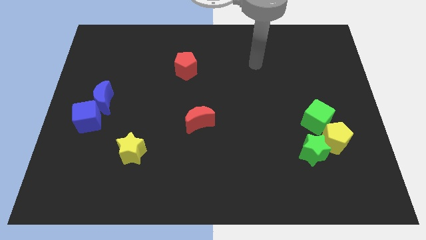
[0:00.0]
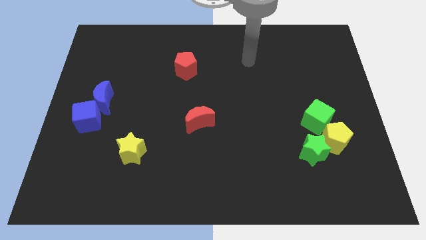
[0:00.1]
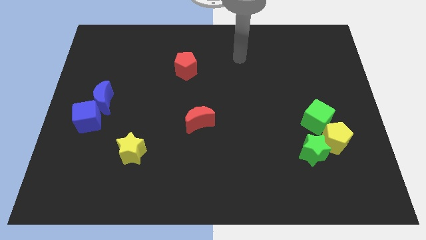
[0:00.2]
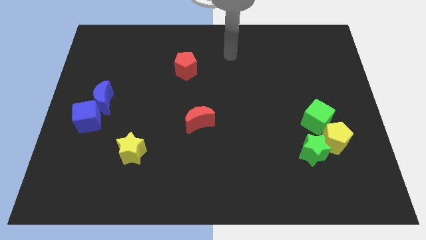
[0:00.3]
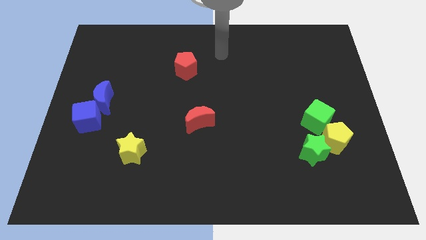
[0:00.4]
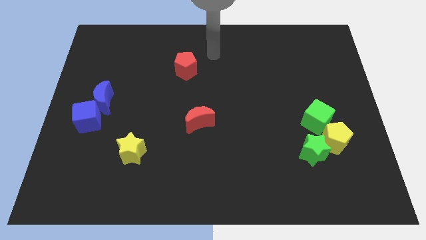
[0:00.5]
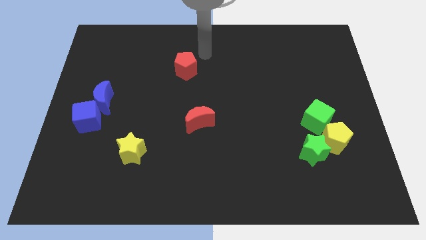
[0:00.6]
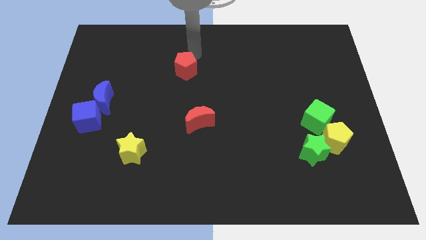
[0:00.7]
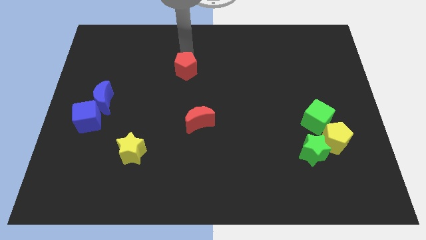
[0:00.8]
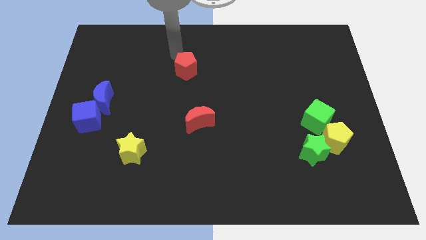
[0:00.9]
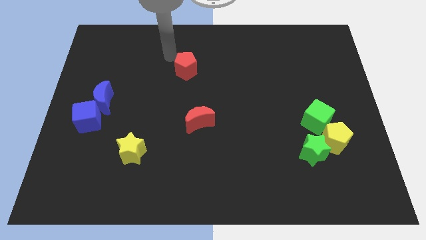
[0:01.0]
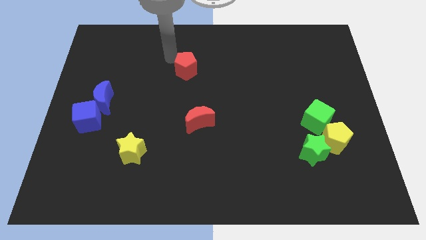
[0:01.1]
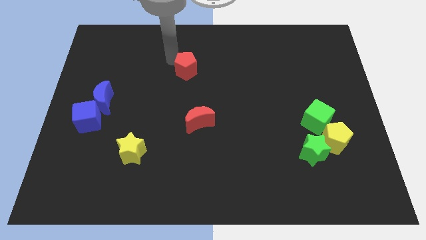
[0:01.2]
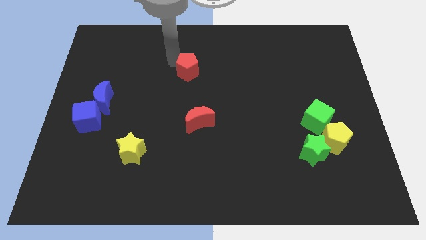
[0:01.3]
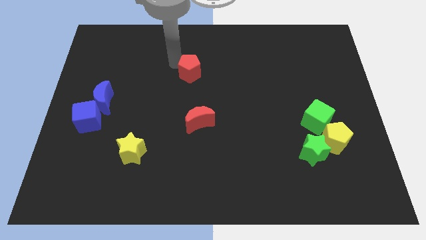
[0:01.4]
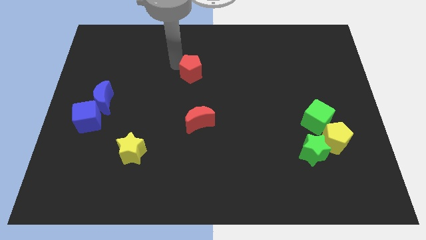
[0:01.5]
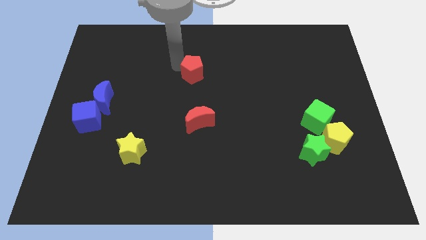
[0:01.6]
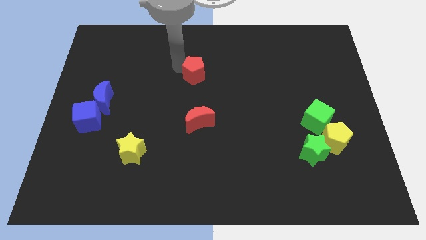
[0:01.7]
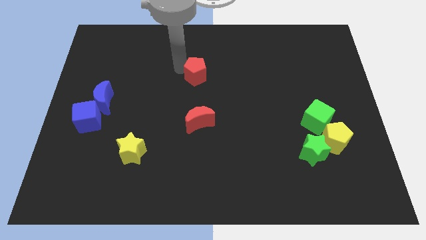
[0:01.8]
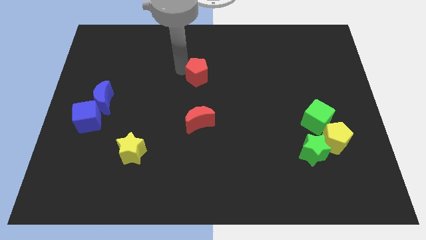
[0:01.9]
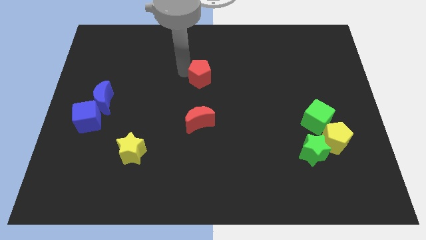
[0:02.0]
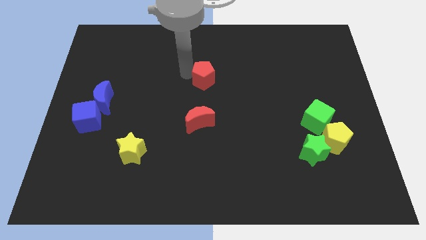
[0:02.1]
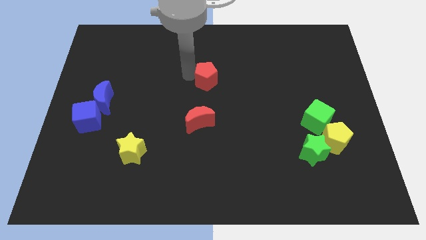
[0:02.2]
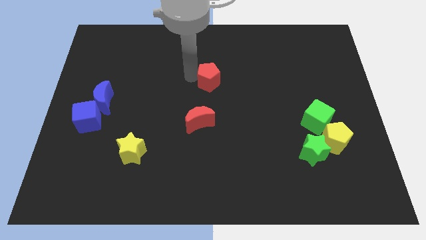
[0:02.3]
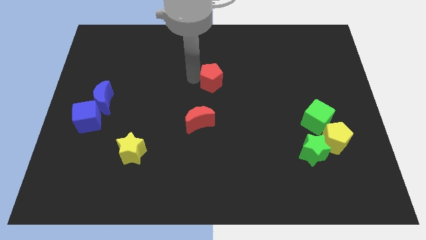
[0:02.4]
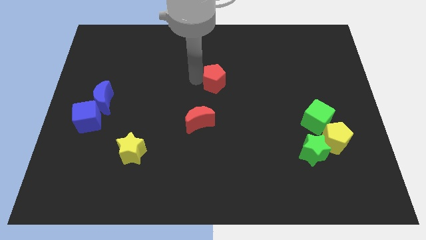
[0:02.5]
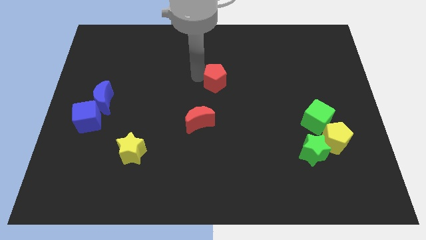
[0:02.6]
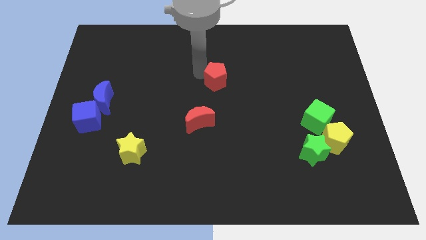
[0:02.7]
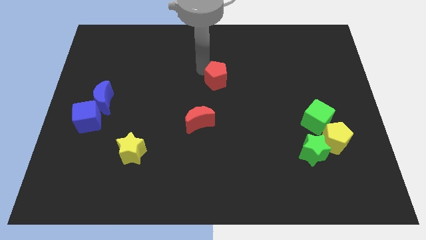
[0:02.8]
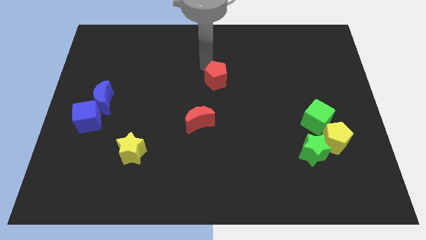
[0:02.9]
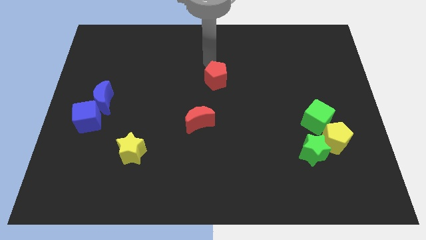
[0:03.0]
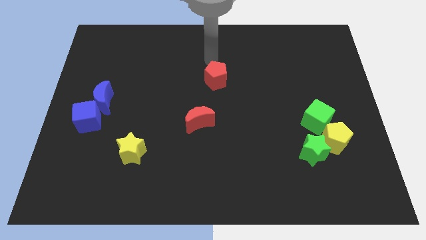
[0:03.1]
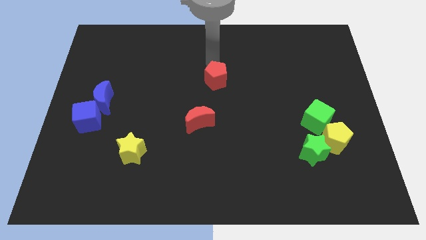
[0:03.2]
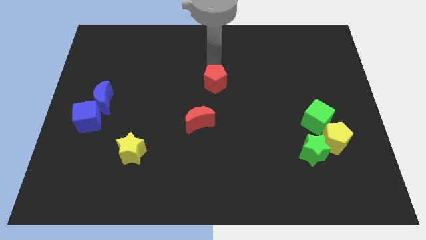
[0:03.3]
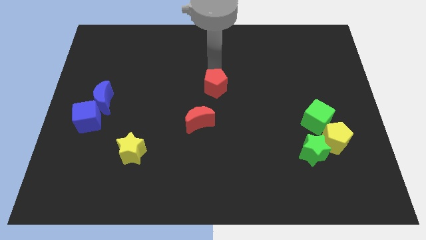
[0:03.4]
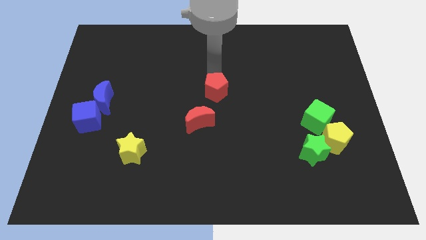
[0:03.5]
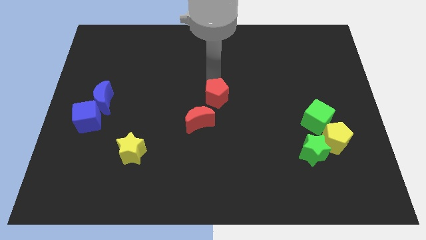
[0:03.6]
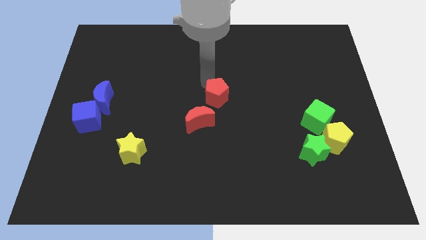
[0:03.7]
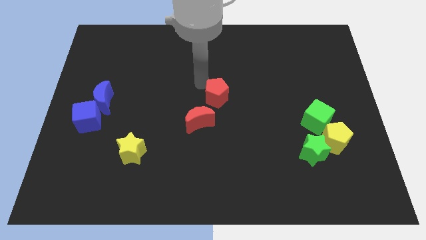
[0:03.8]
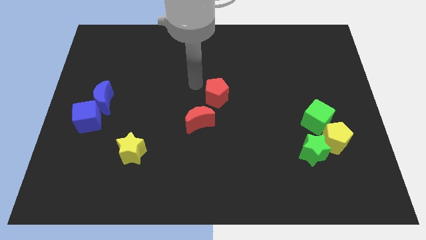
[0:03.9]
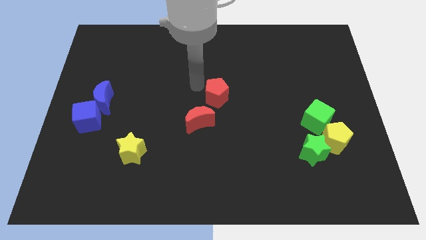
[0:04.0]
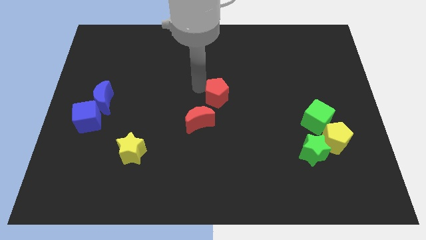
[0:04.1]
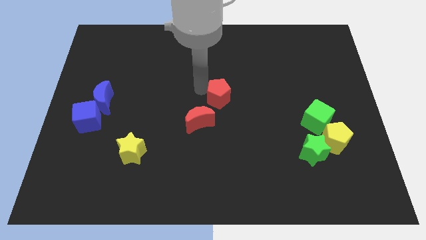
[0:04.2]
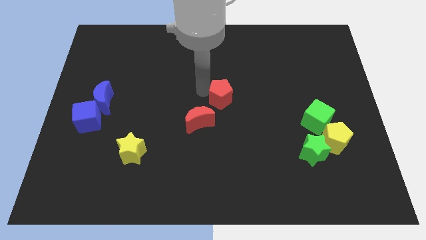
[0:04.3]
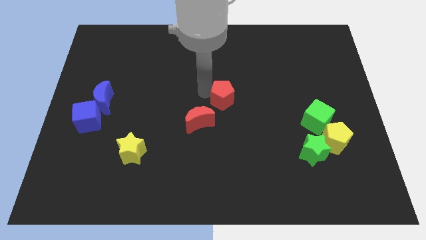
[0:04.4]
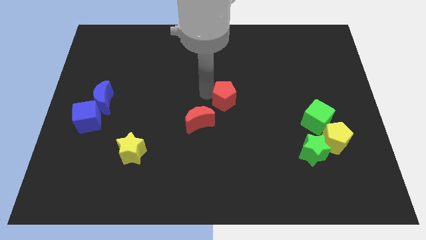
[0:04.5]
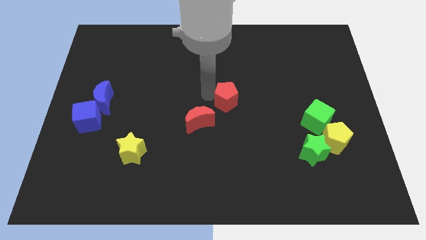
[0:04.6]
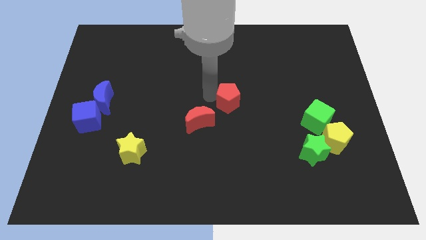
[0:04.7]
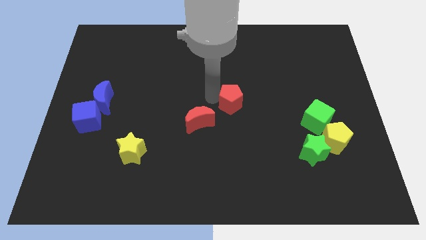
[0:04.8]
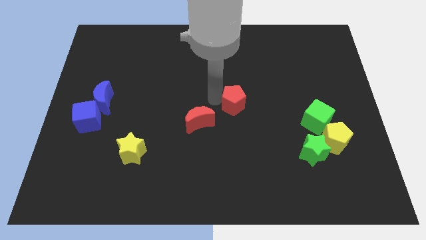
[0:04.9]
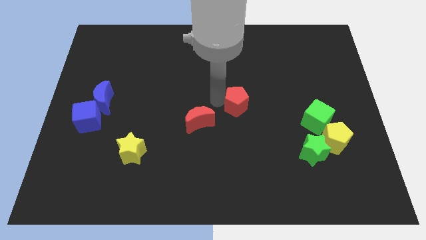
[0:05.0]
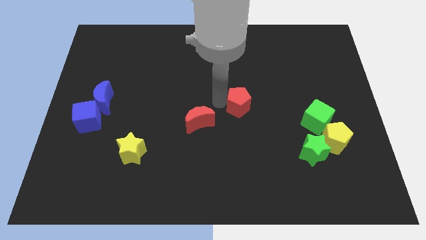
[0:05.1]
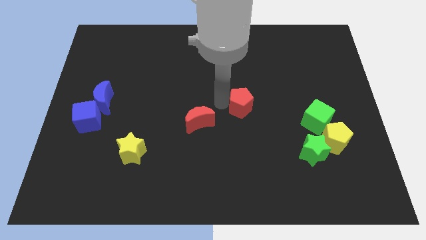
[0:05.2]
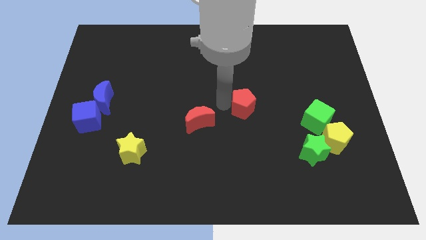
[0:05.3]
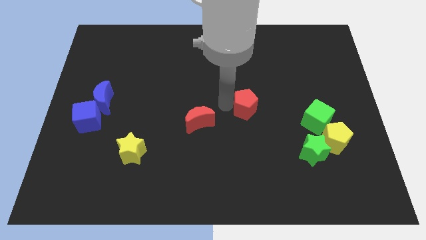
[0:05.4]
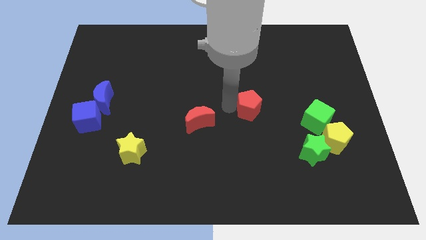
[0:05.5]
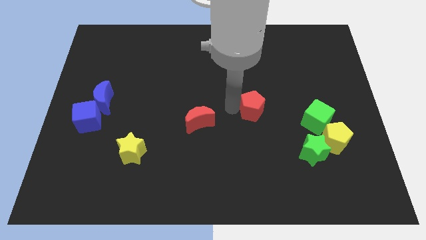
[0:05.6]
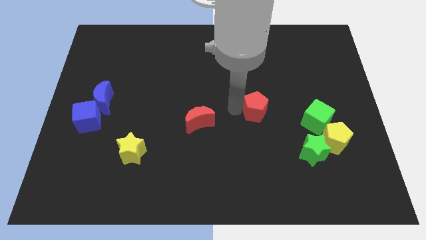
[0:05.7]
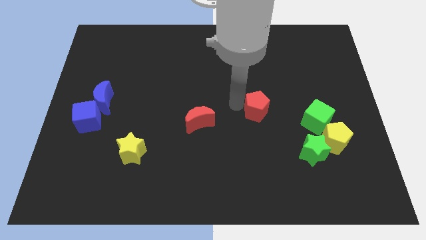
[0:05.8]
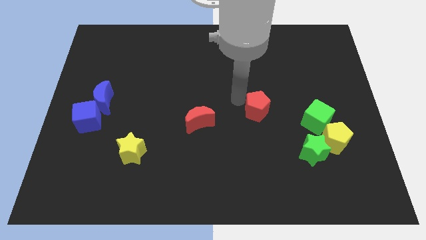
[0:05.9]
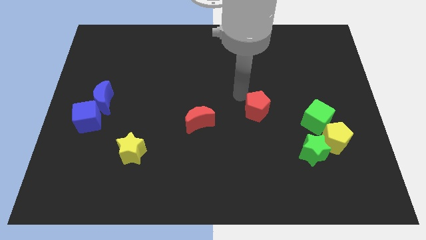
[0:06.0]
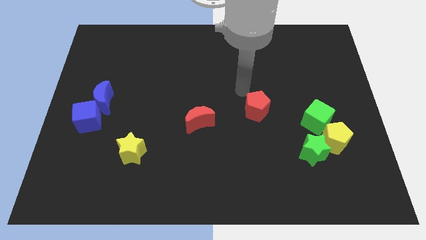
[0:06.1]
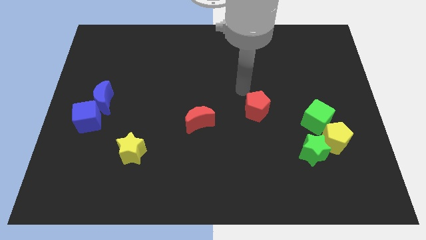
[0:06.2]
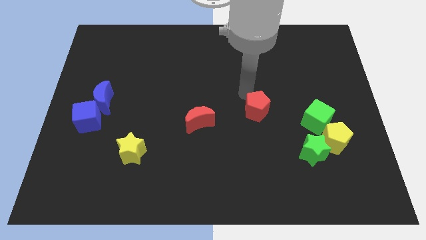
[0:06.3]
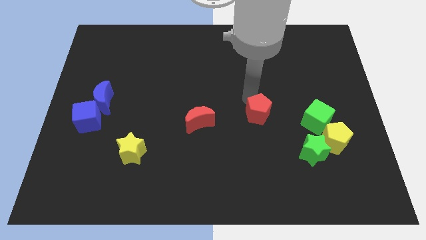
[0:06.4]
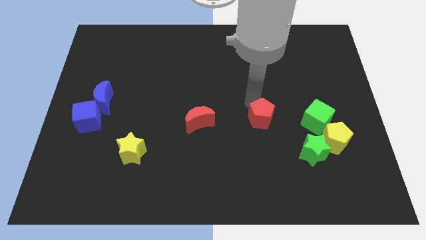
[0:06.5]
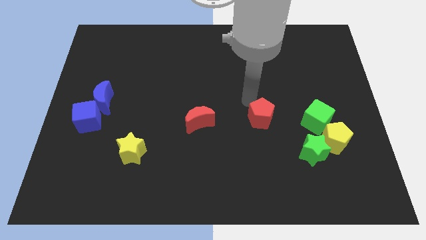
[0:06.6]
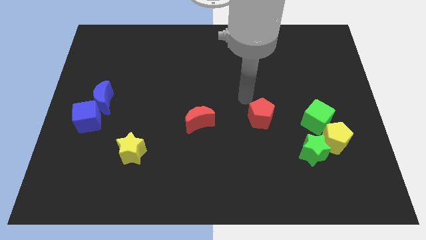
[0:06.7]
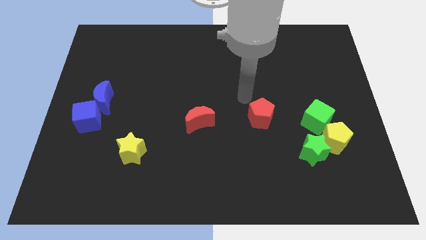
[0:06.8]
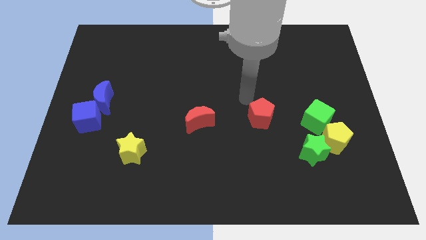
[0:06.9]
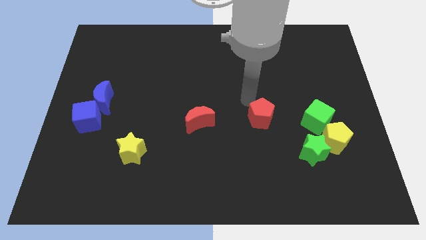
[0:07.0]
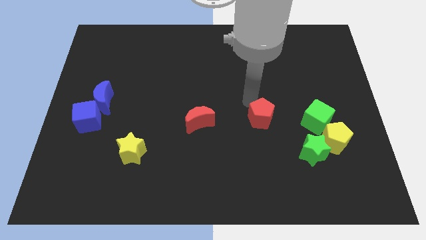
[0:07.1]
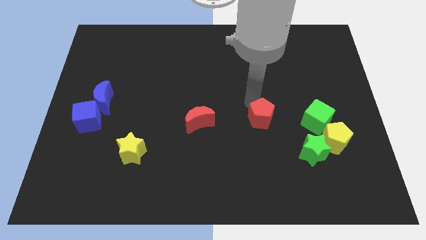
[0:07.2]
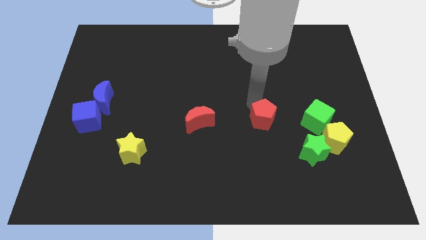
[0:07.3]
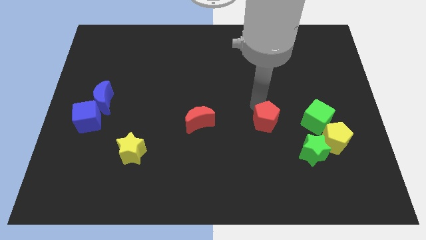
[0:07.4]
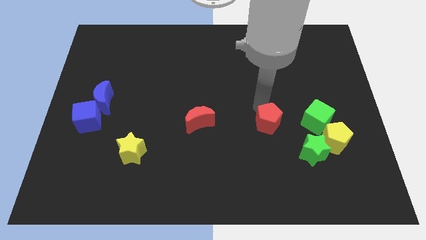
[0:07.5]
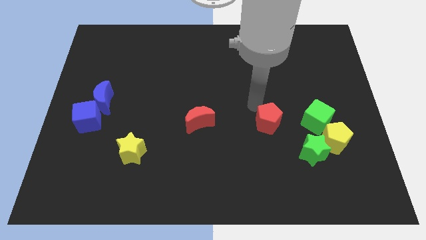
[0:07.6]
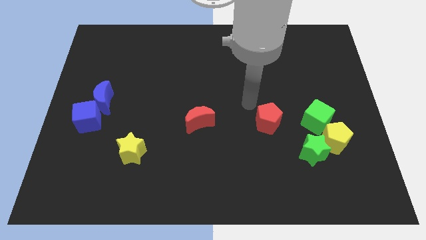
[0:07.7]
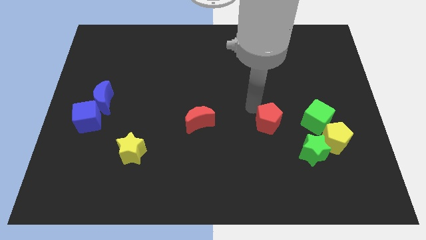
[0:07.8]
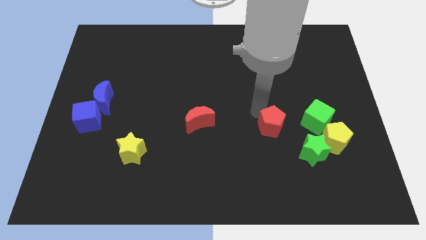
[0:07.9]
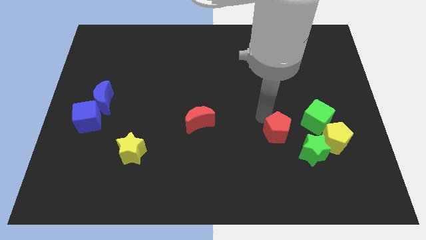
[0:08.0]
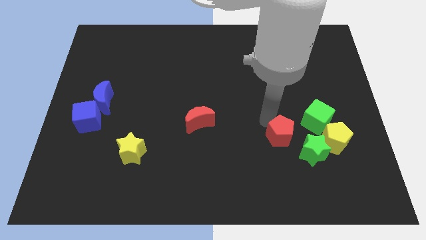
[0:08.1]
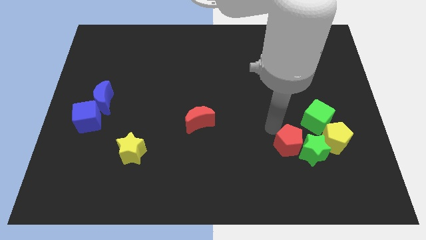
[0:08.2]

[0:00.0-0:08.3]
push the red pentagon next to the green star
